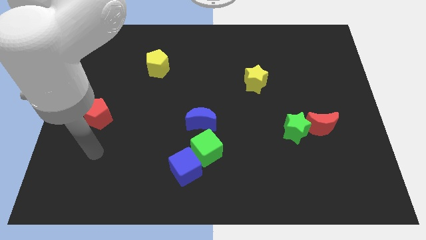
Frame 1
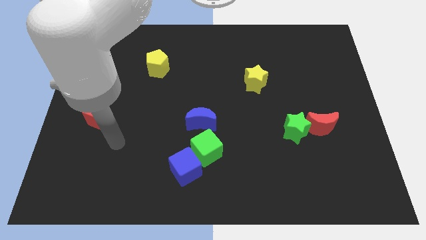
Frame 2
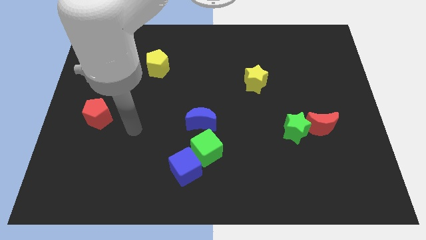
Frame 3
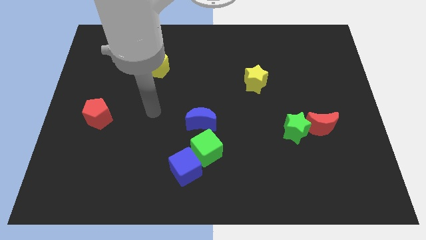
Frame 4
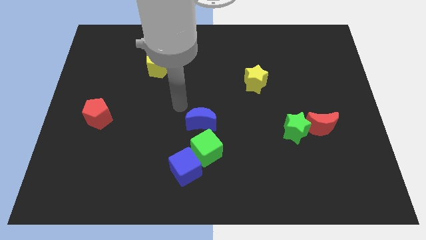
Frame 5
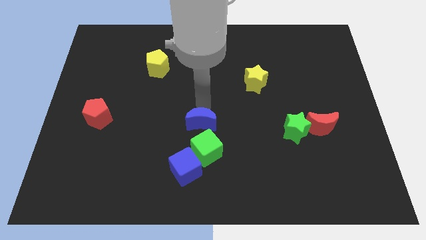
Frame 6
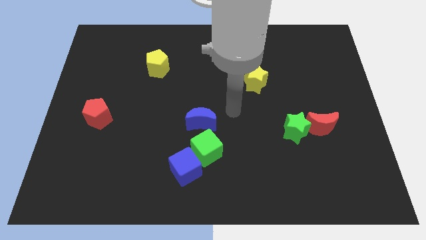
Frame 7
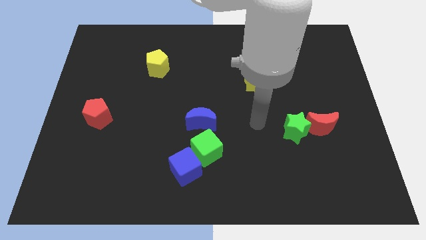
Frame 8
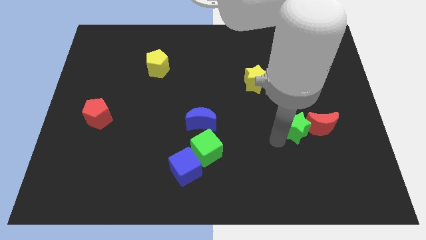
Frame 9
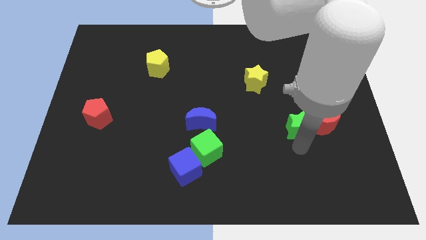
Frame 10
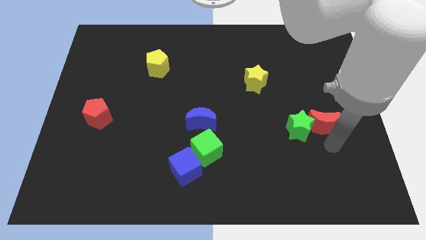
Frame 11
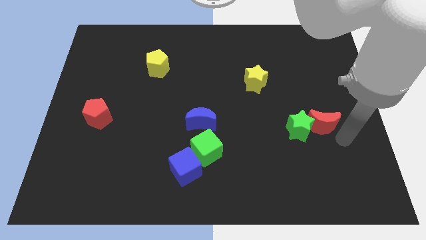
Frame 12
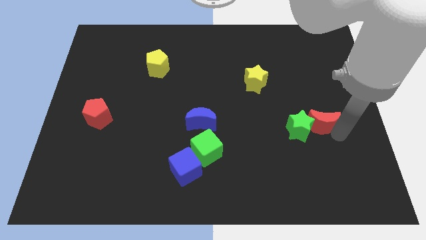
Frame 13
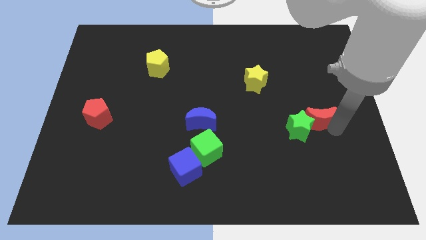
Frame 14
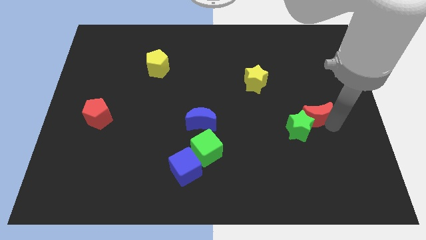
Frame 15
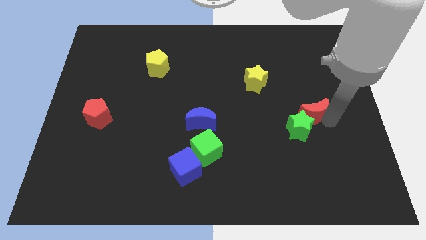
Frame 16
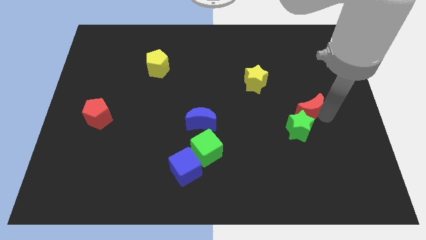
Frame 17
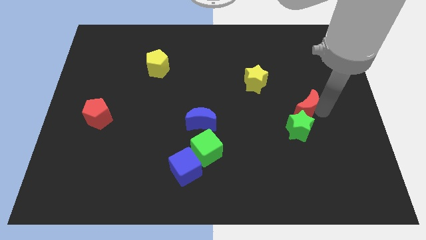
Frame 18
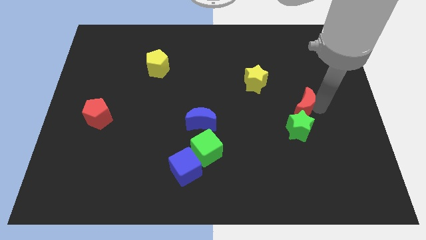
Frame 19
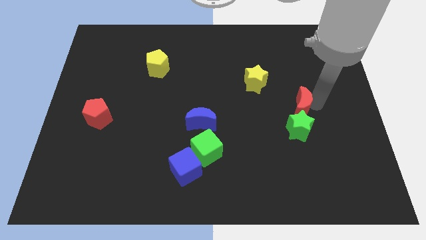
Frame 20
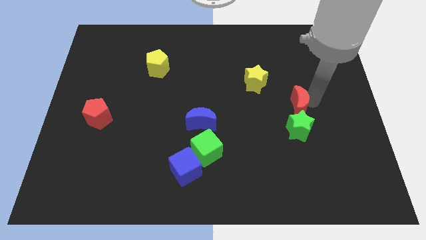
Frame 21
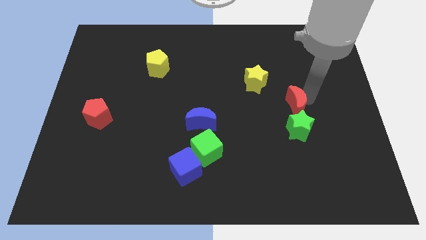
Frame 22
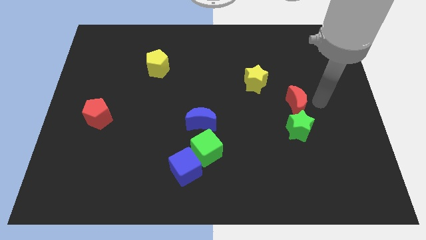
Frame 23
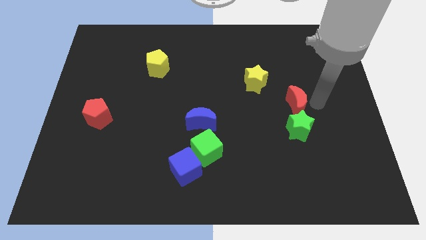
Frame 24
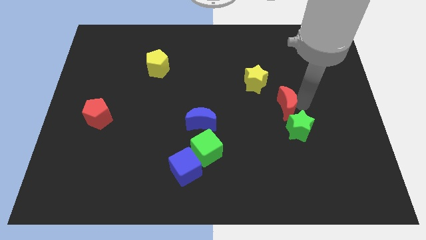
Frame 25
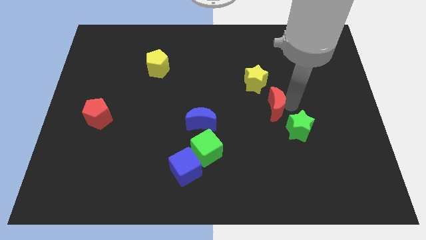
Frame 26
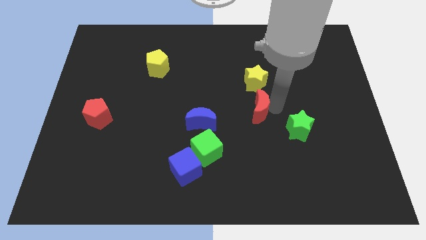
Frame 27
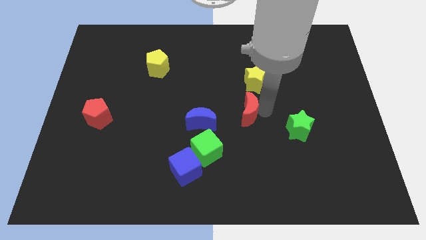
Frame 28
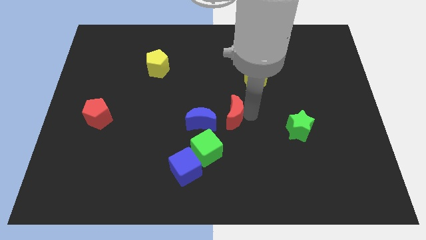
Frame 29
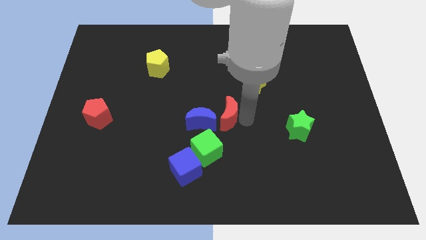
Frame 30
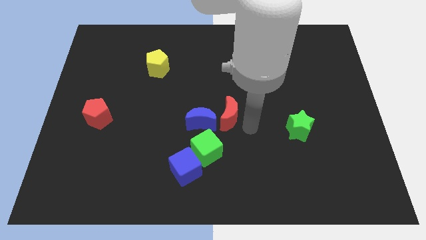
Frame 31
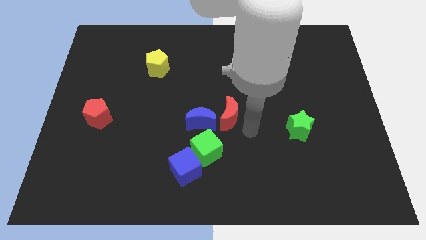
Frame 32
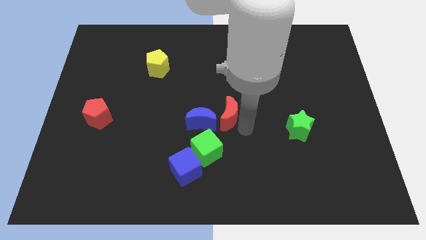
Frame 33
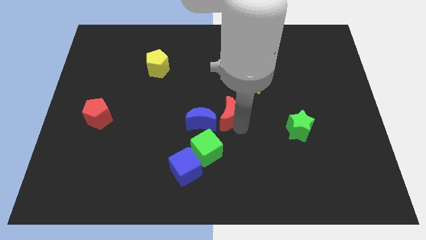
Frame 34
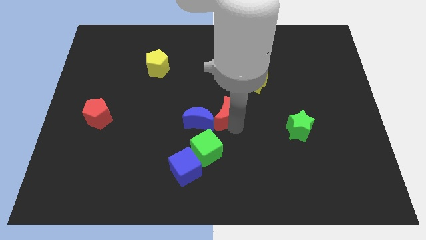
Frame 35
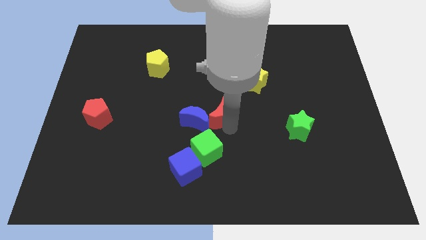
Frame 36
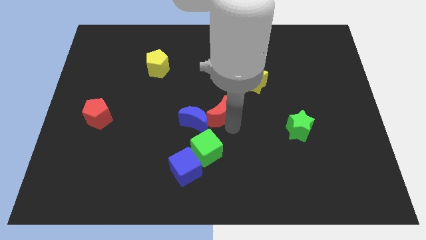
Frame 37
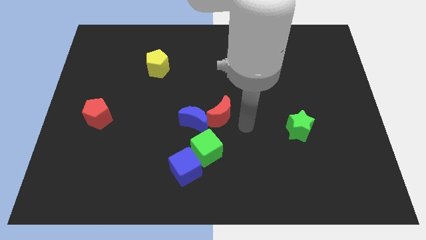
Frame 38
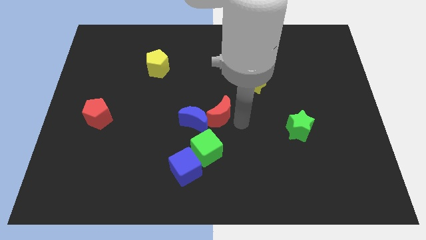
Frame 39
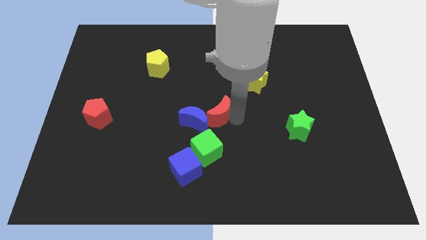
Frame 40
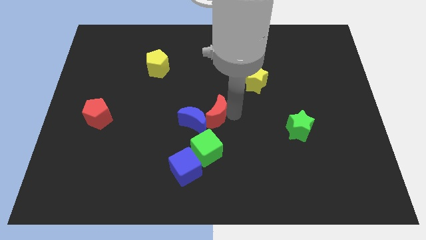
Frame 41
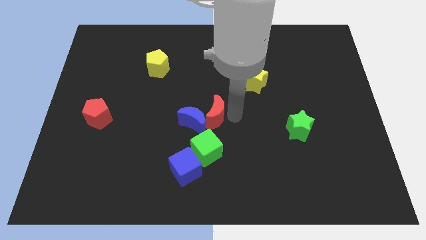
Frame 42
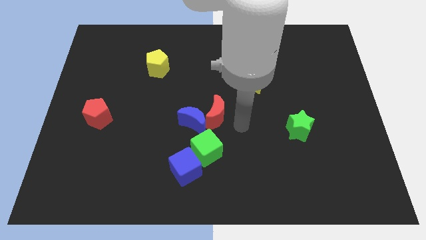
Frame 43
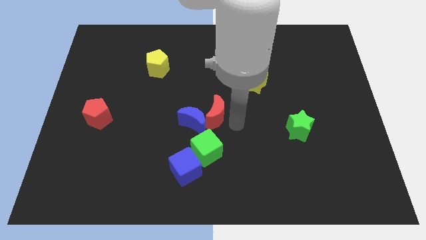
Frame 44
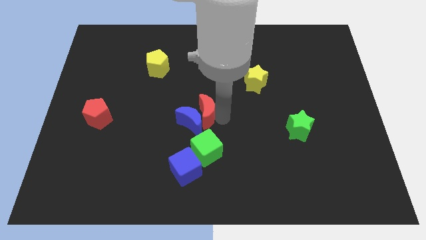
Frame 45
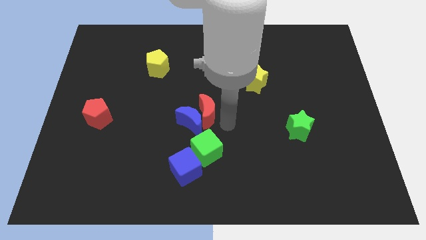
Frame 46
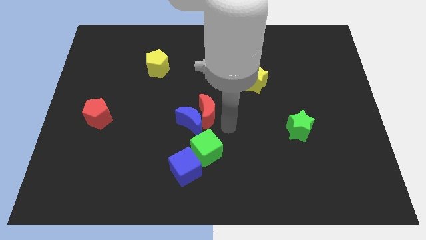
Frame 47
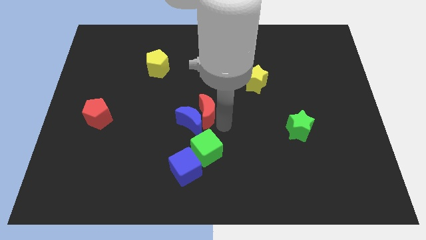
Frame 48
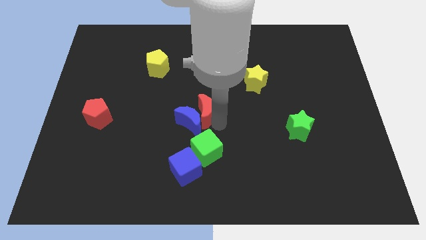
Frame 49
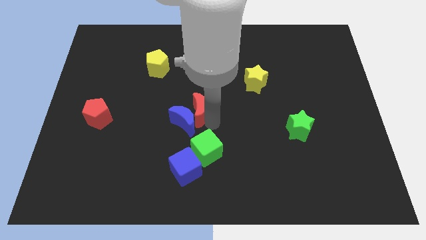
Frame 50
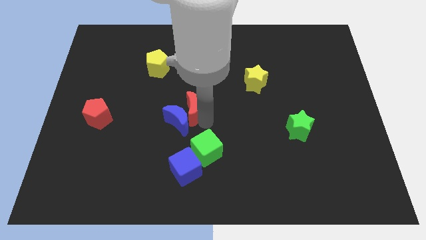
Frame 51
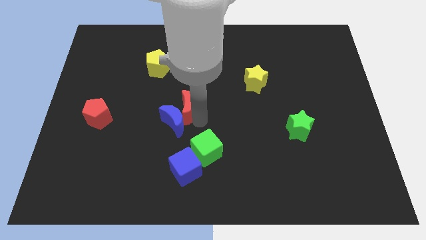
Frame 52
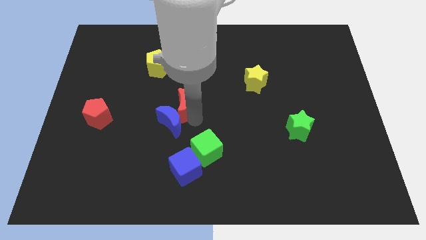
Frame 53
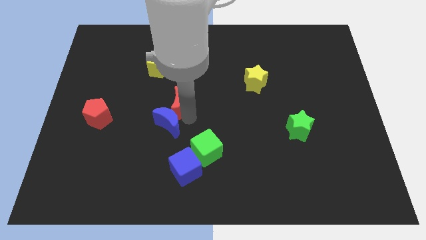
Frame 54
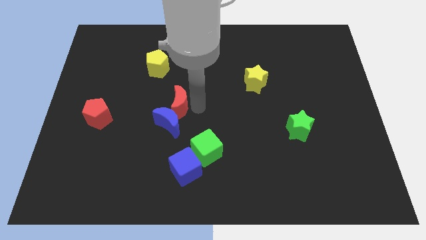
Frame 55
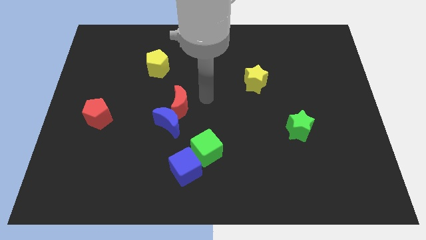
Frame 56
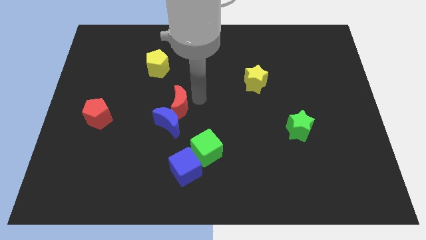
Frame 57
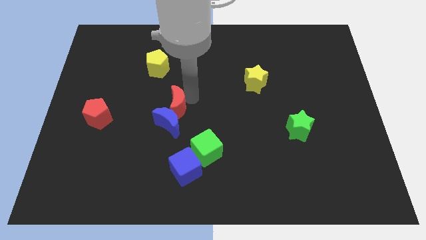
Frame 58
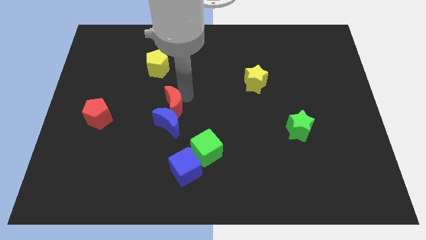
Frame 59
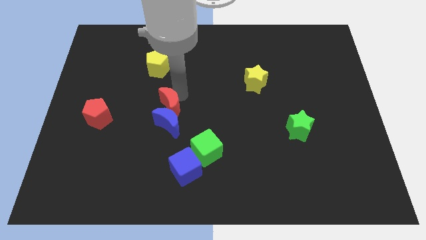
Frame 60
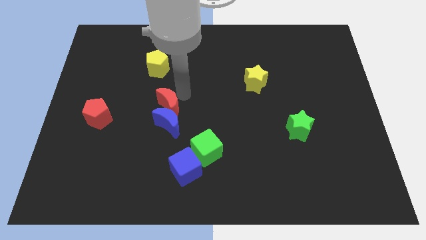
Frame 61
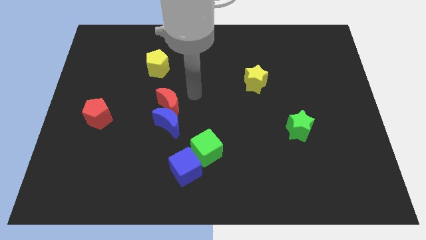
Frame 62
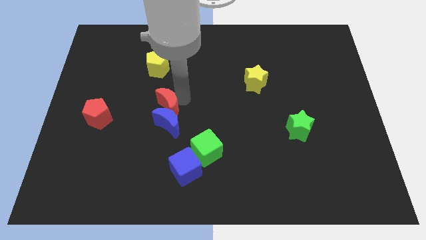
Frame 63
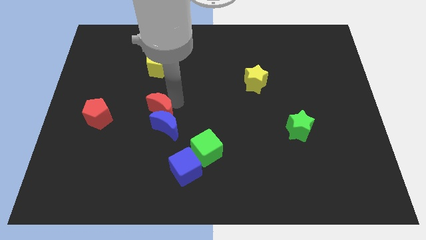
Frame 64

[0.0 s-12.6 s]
slide the red moon just right of the red pentagon

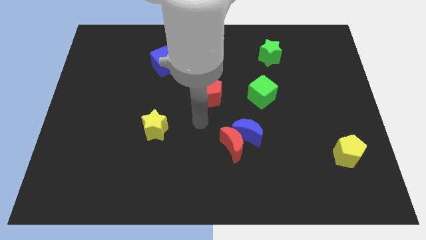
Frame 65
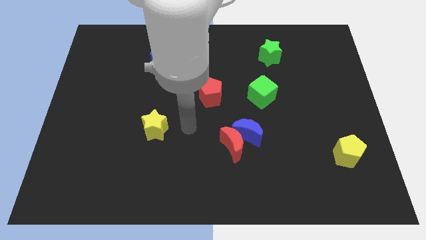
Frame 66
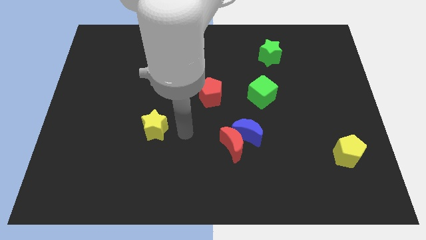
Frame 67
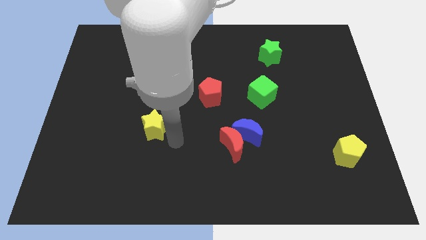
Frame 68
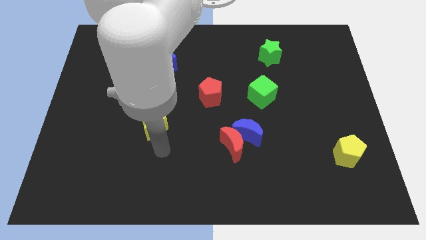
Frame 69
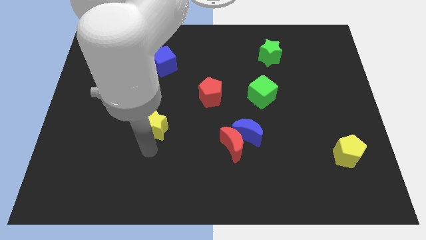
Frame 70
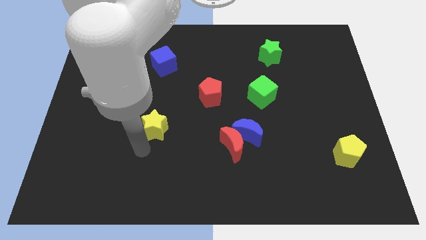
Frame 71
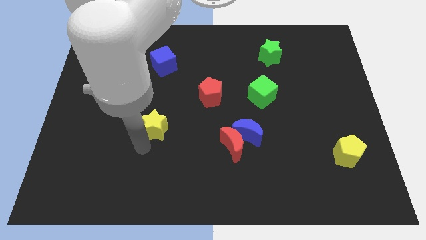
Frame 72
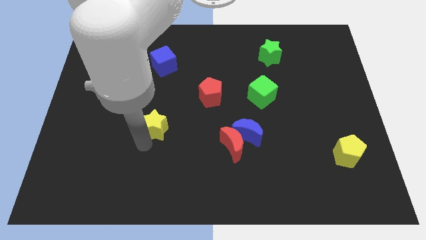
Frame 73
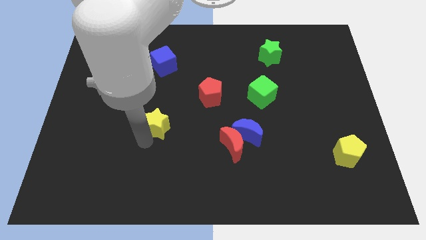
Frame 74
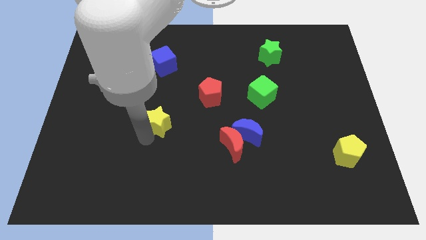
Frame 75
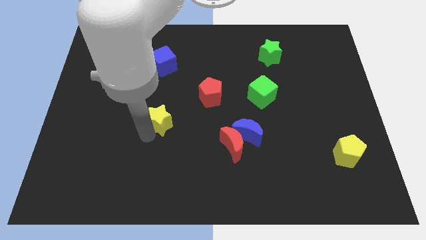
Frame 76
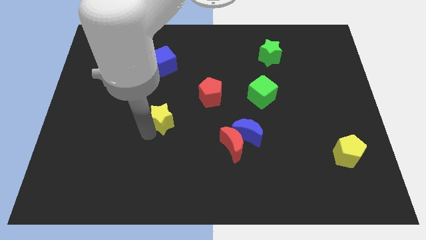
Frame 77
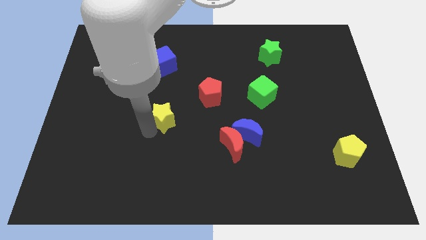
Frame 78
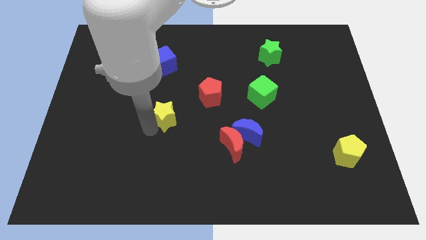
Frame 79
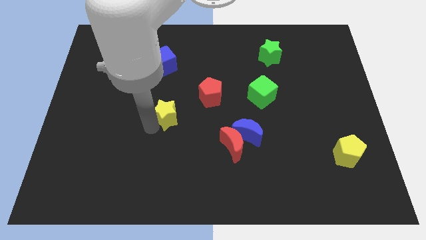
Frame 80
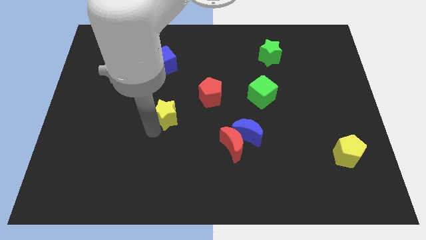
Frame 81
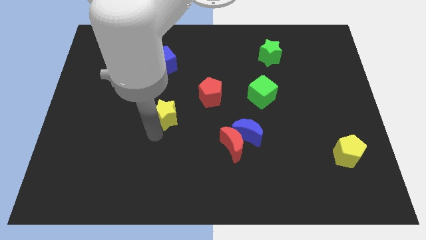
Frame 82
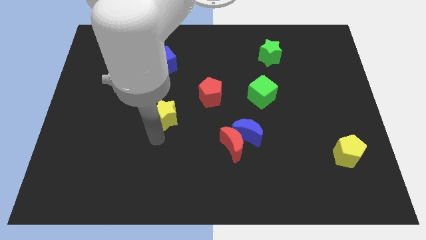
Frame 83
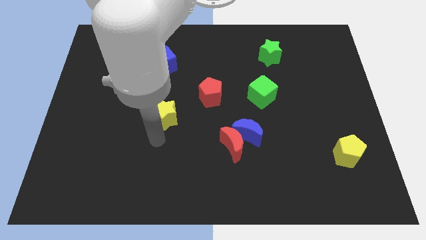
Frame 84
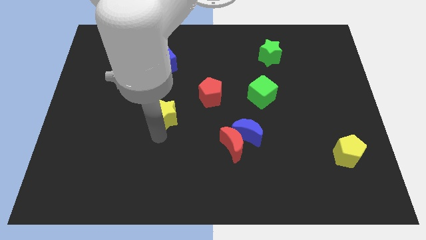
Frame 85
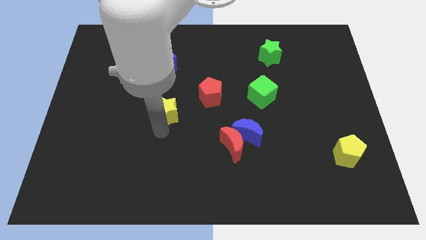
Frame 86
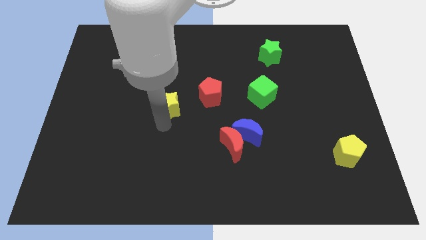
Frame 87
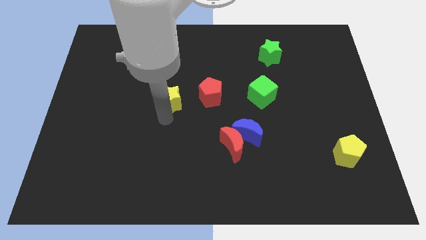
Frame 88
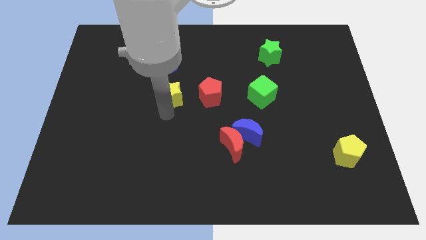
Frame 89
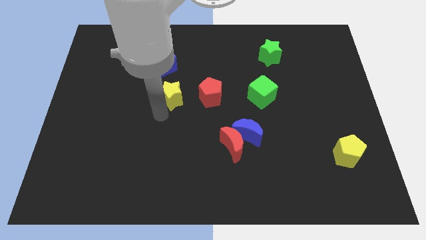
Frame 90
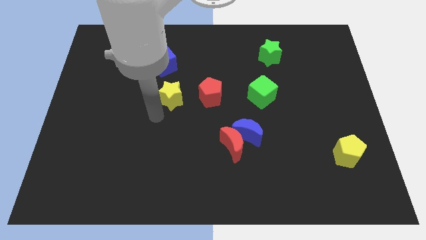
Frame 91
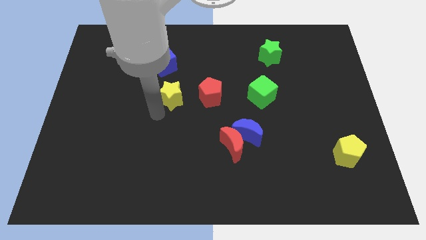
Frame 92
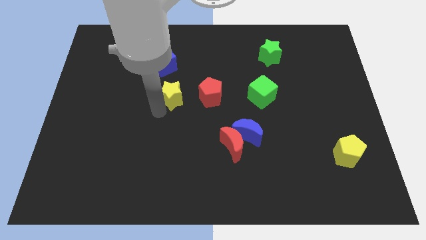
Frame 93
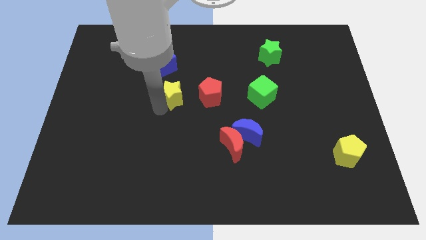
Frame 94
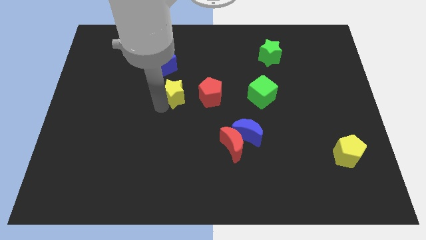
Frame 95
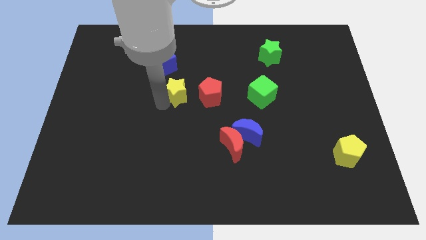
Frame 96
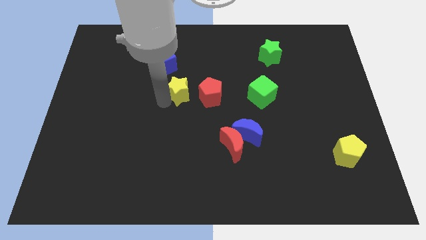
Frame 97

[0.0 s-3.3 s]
move the yellow star diagonally up and to the left of the red pentagon
